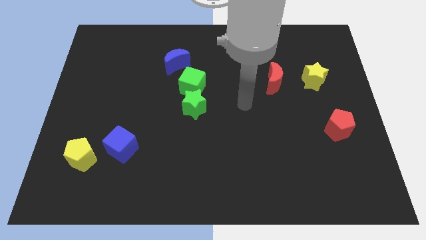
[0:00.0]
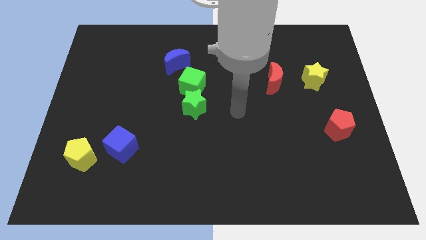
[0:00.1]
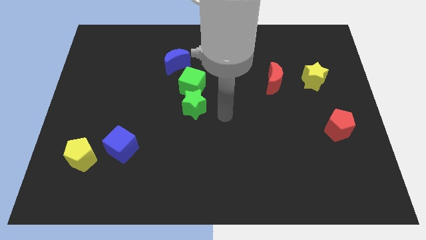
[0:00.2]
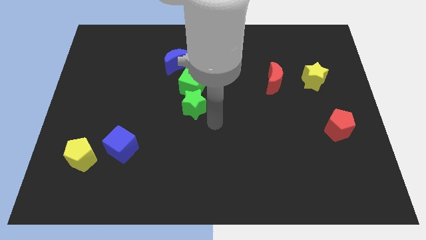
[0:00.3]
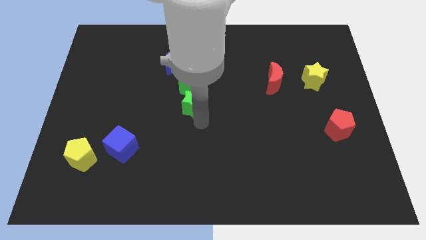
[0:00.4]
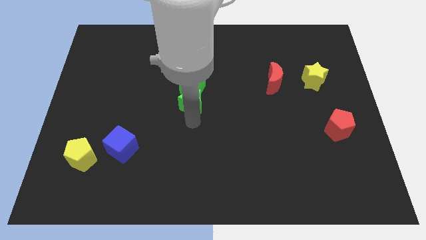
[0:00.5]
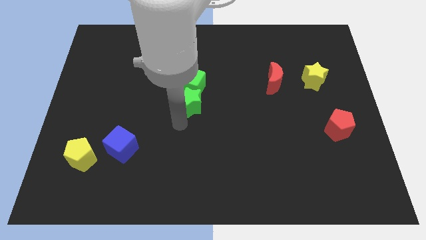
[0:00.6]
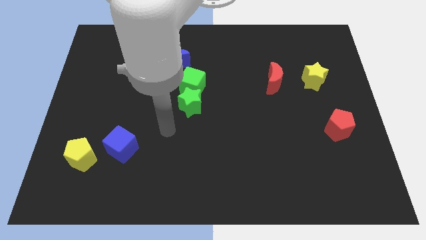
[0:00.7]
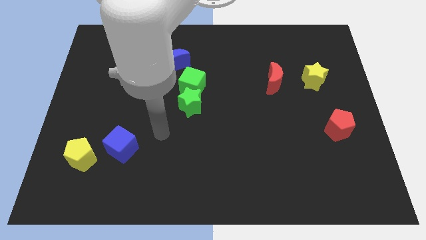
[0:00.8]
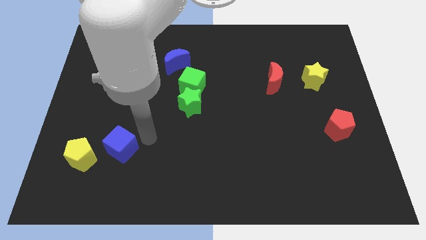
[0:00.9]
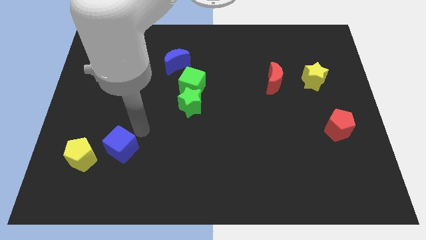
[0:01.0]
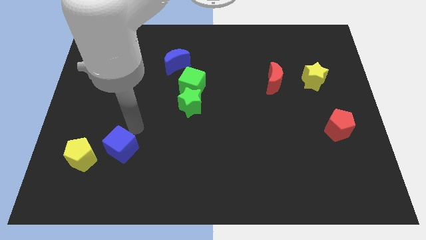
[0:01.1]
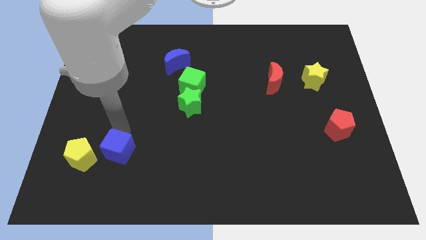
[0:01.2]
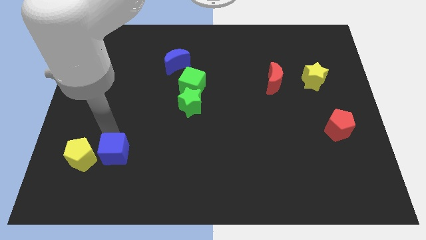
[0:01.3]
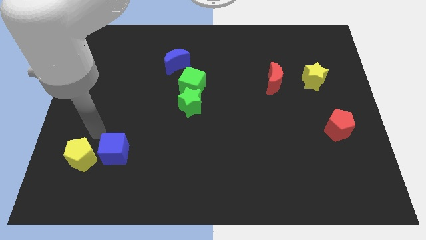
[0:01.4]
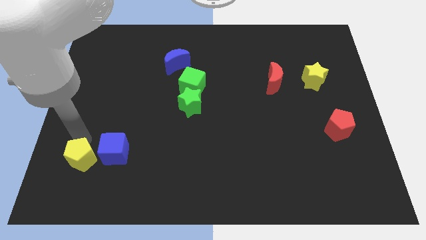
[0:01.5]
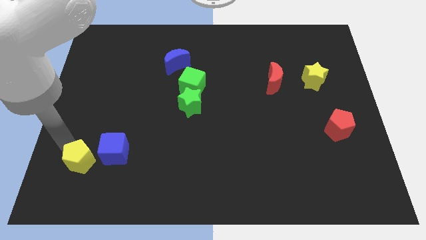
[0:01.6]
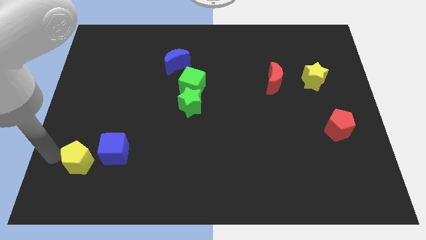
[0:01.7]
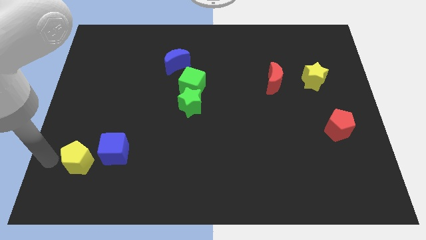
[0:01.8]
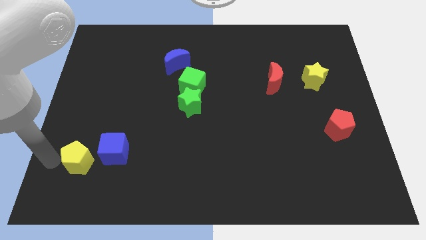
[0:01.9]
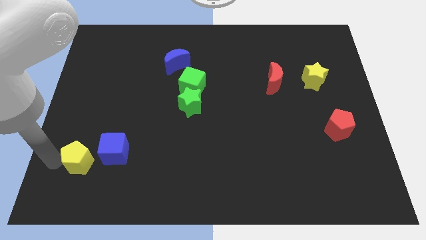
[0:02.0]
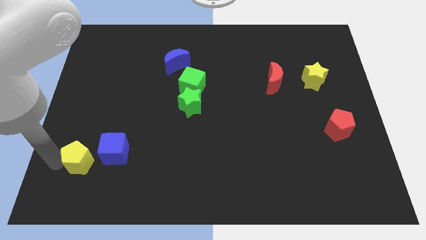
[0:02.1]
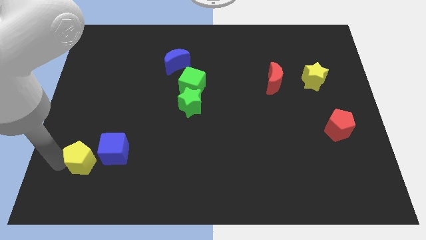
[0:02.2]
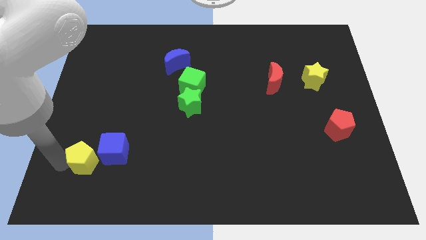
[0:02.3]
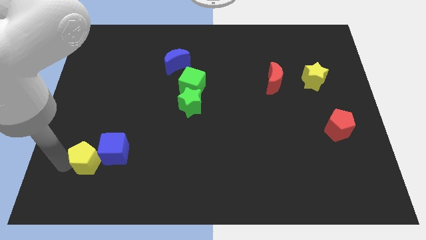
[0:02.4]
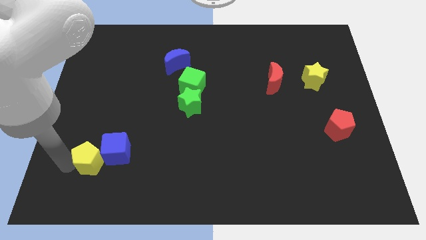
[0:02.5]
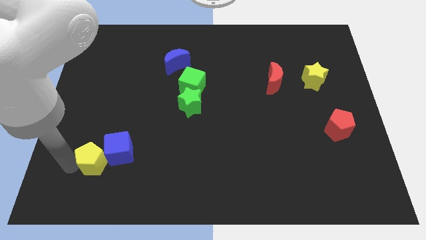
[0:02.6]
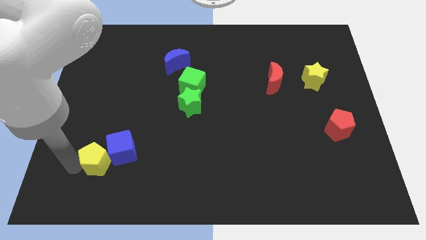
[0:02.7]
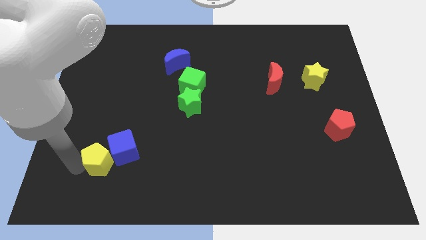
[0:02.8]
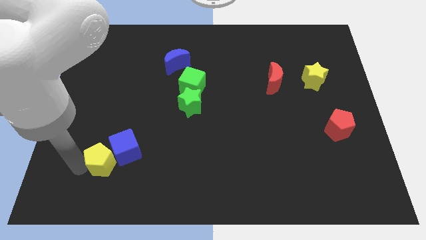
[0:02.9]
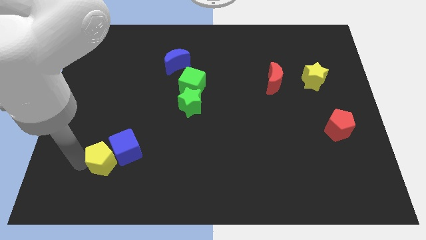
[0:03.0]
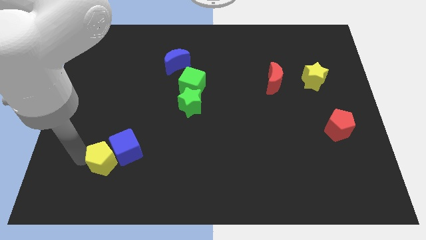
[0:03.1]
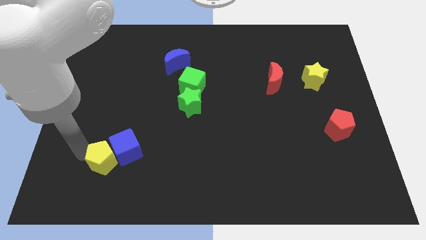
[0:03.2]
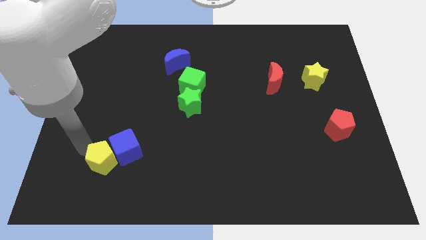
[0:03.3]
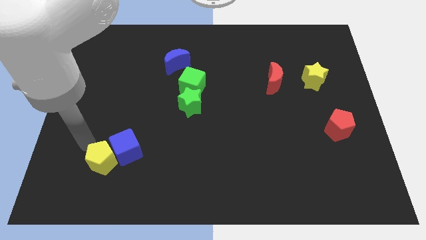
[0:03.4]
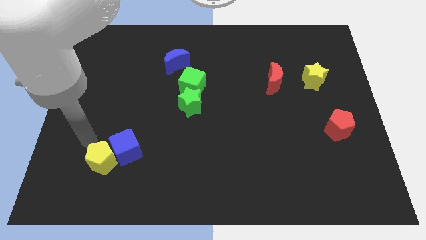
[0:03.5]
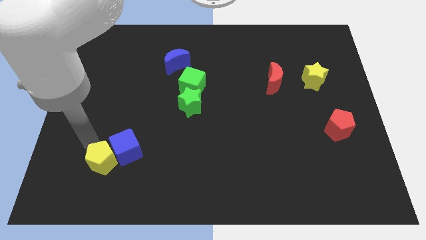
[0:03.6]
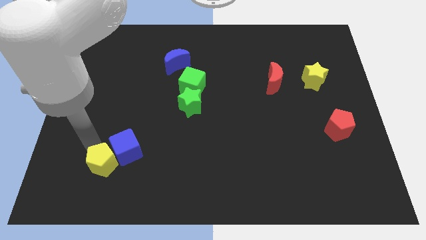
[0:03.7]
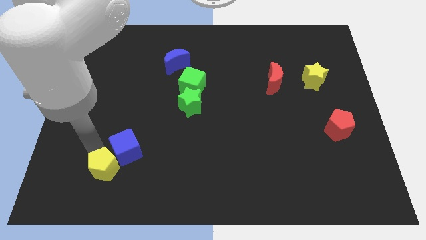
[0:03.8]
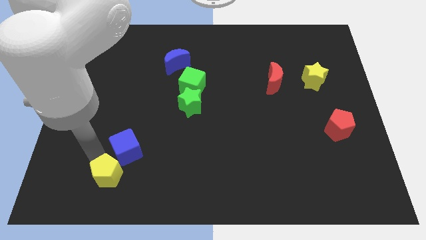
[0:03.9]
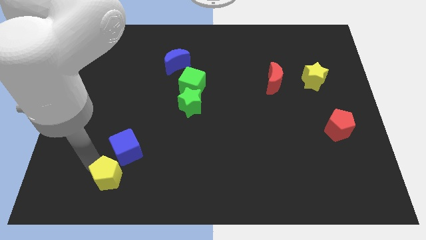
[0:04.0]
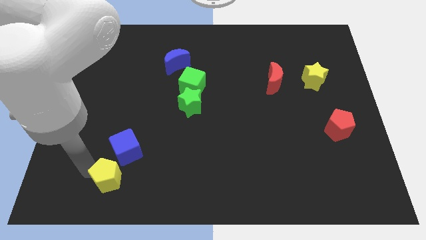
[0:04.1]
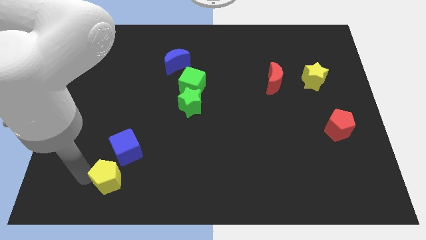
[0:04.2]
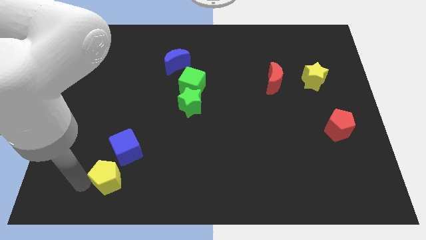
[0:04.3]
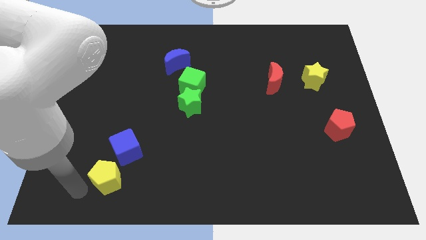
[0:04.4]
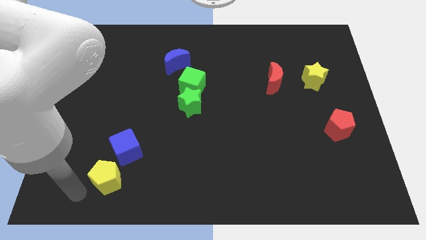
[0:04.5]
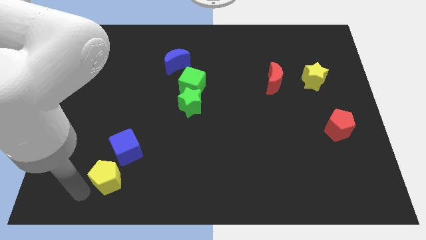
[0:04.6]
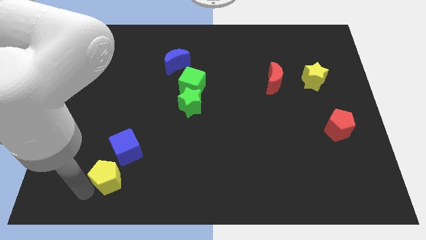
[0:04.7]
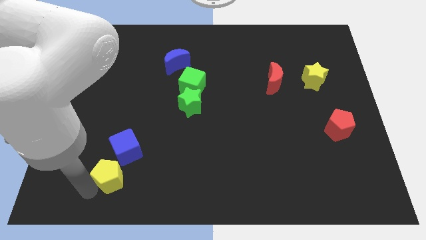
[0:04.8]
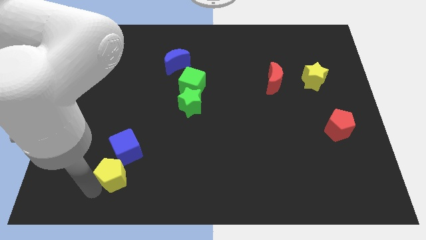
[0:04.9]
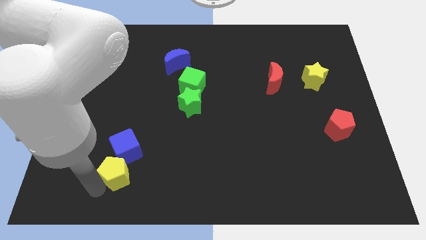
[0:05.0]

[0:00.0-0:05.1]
move the yellow pentagon a little to the right

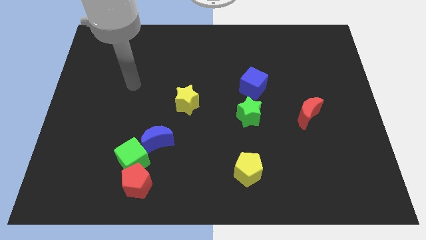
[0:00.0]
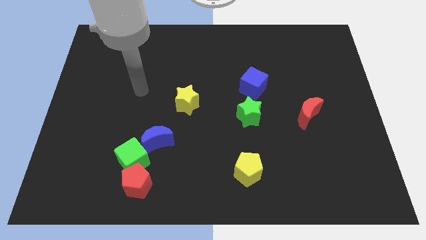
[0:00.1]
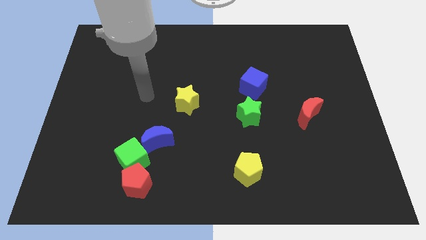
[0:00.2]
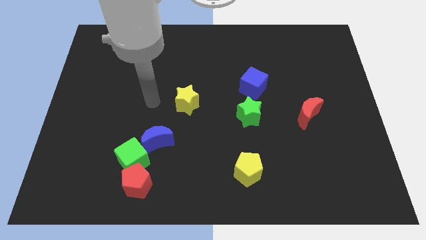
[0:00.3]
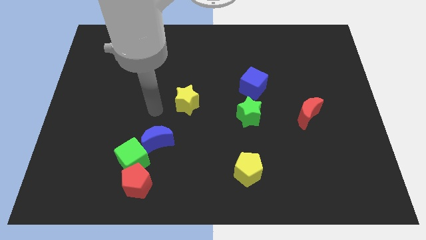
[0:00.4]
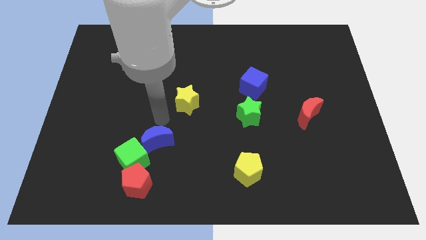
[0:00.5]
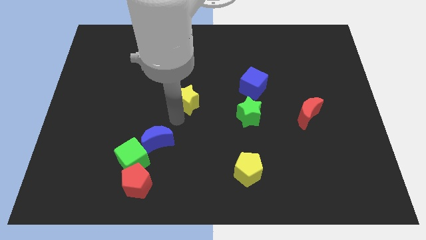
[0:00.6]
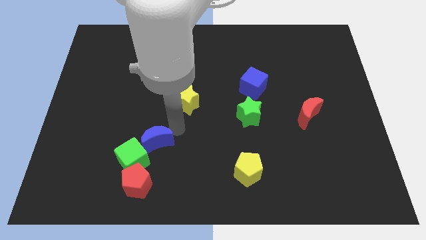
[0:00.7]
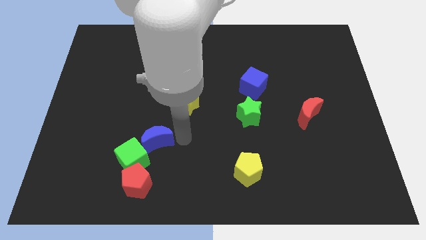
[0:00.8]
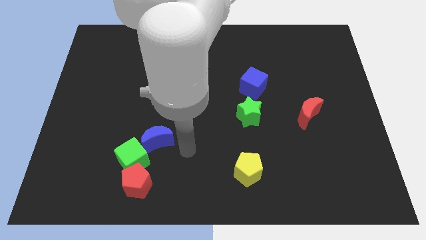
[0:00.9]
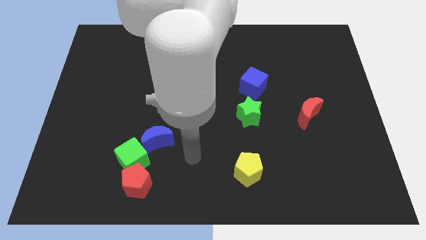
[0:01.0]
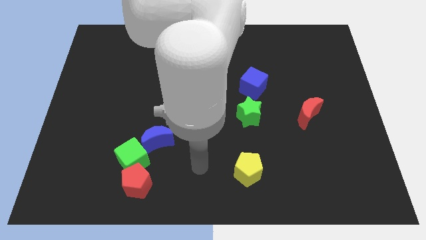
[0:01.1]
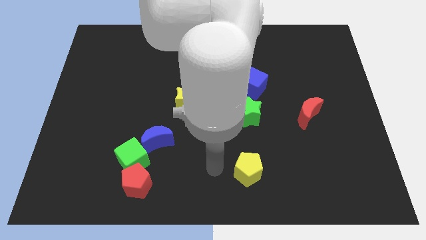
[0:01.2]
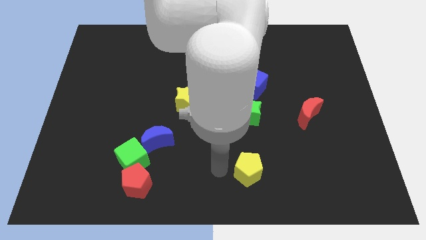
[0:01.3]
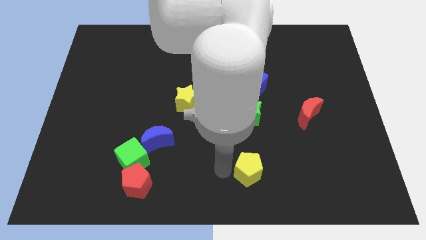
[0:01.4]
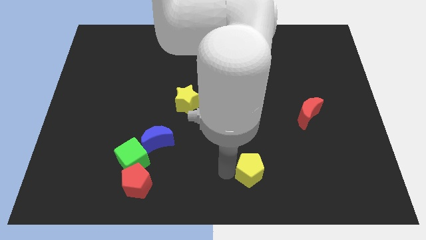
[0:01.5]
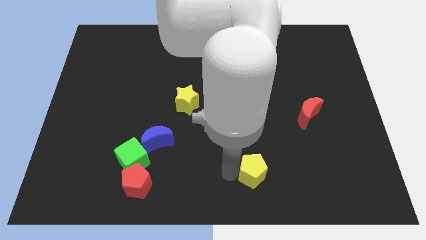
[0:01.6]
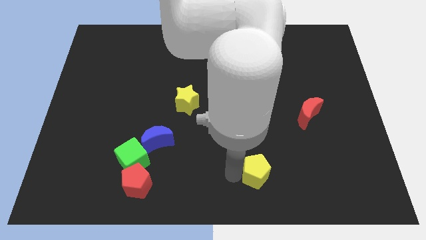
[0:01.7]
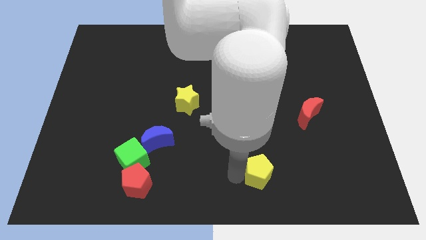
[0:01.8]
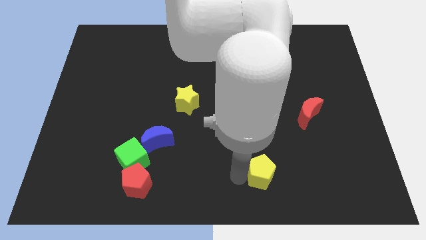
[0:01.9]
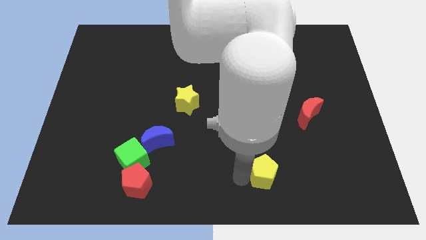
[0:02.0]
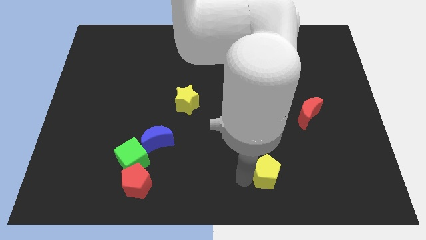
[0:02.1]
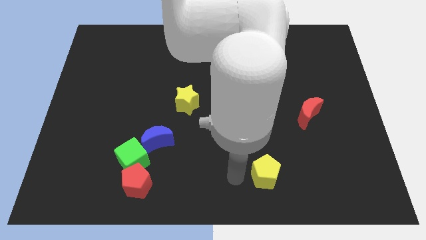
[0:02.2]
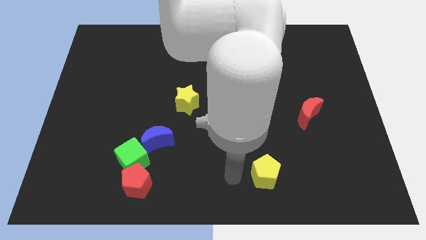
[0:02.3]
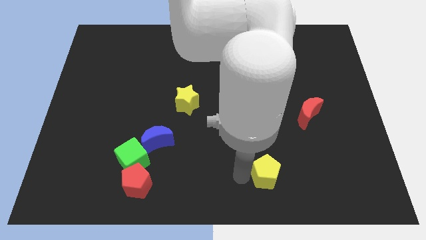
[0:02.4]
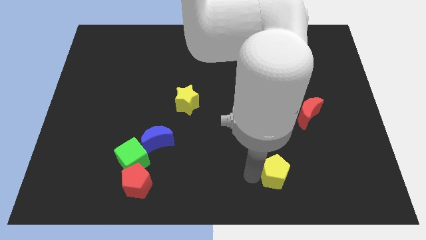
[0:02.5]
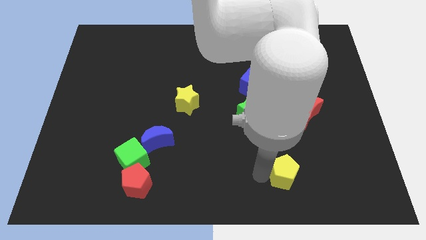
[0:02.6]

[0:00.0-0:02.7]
slide the yellow pentagon somewhat right
